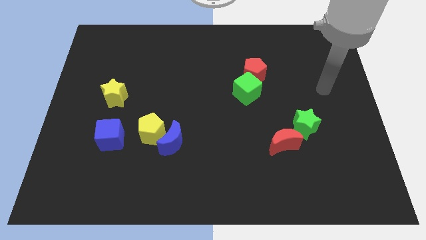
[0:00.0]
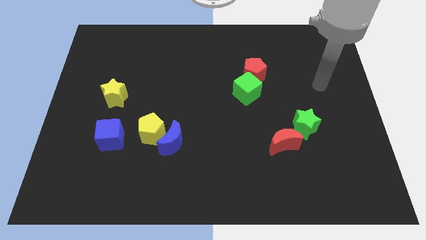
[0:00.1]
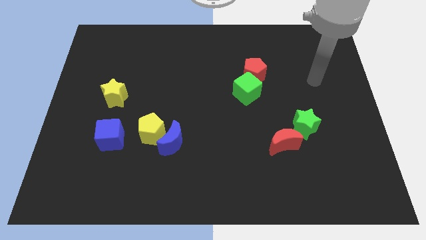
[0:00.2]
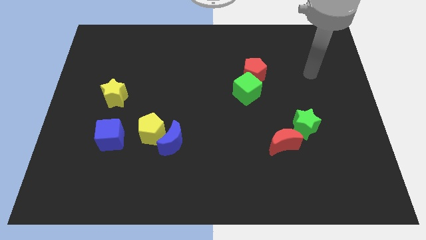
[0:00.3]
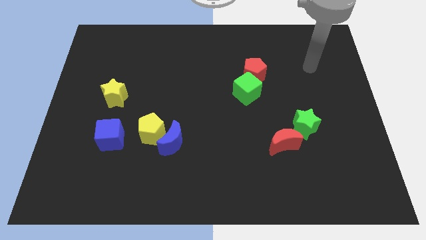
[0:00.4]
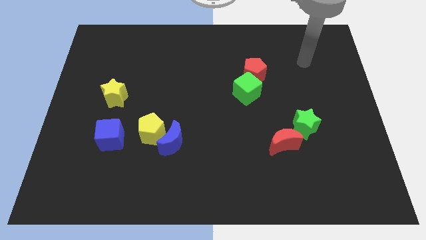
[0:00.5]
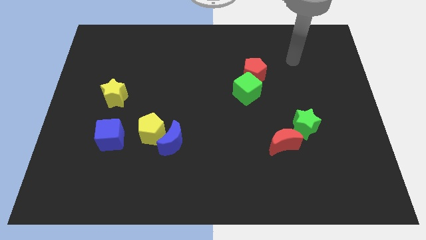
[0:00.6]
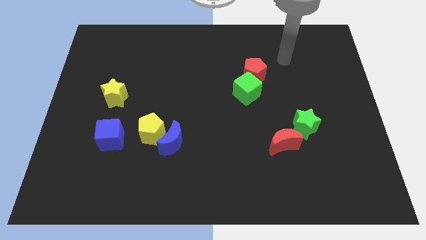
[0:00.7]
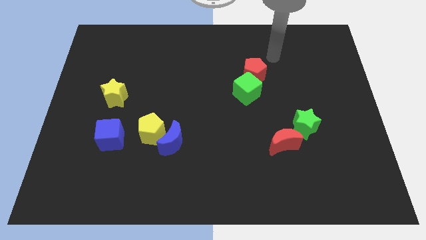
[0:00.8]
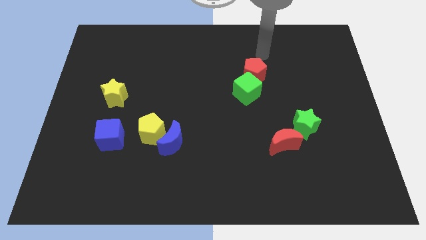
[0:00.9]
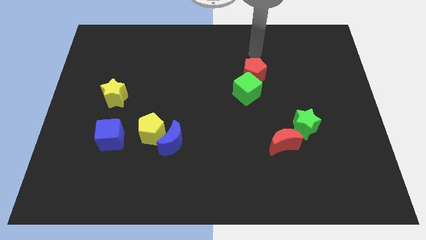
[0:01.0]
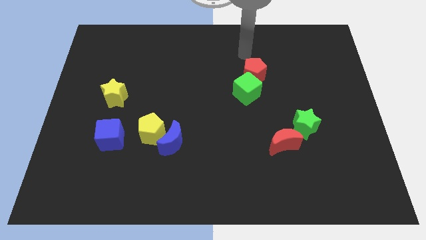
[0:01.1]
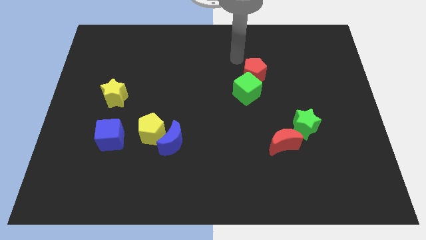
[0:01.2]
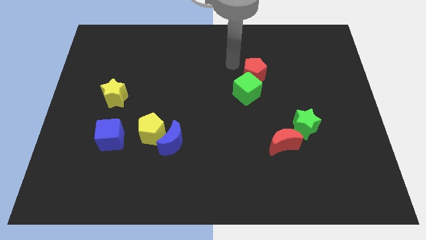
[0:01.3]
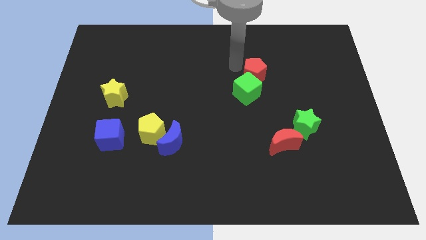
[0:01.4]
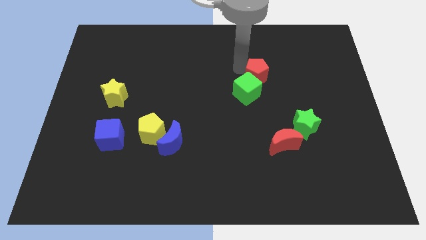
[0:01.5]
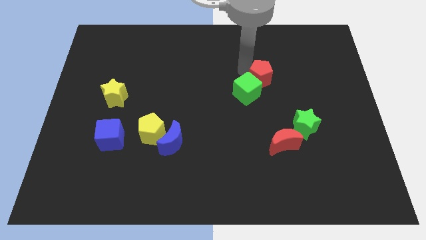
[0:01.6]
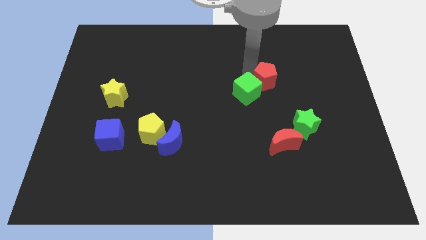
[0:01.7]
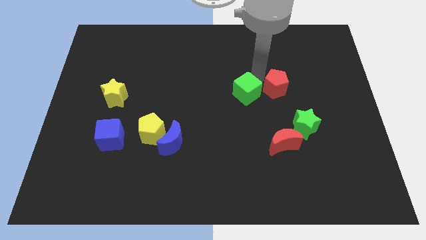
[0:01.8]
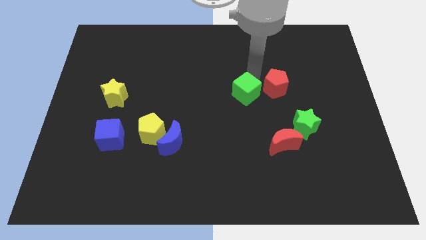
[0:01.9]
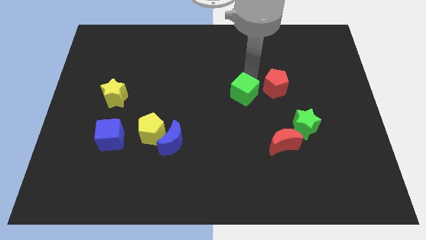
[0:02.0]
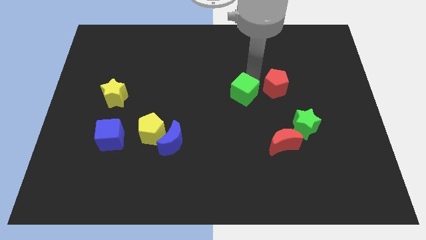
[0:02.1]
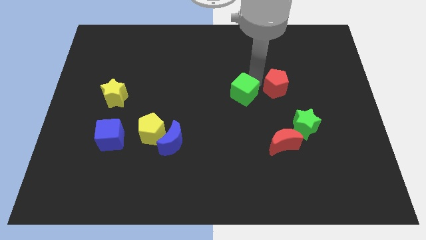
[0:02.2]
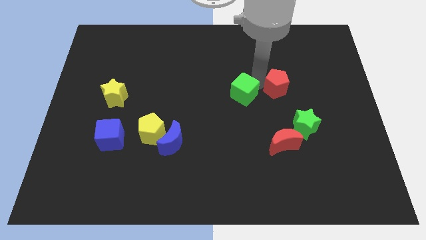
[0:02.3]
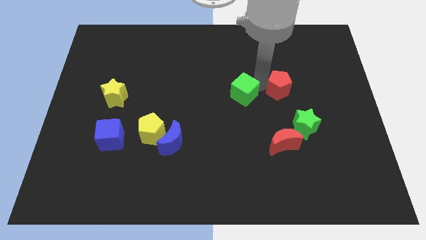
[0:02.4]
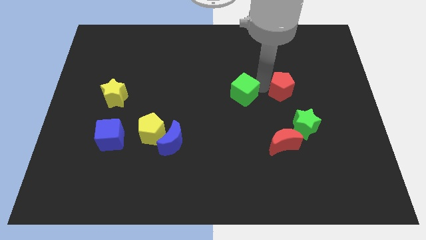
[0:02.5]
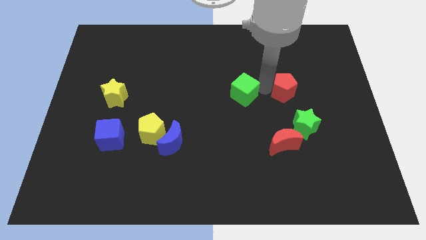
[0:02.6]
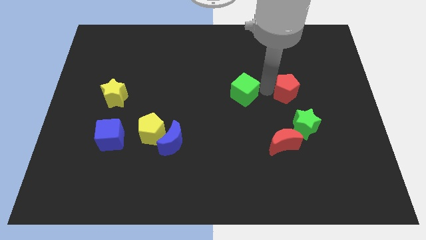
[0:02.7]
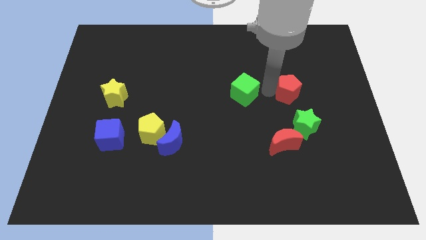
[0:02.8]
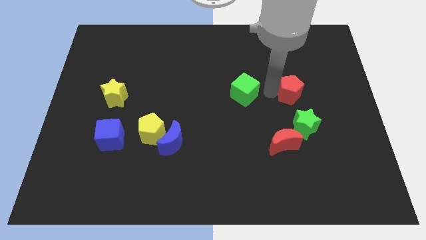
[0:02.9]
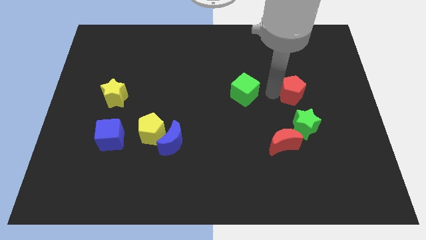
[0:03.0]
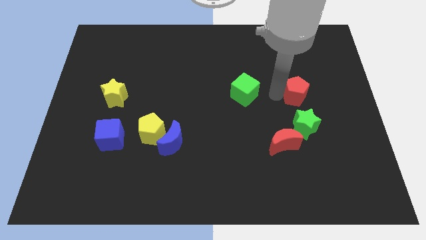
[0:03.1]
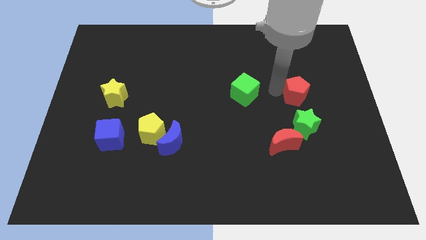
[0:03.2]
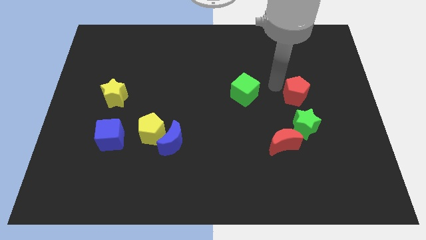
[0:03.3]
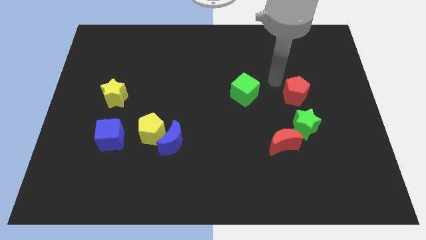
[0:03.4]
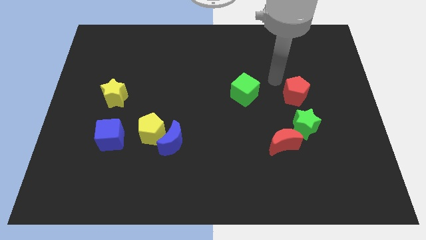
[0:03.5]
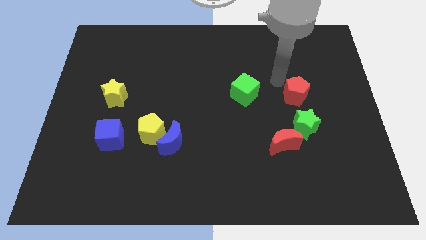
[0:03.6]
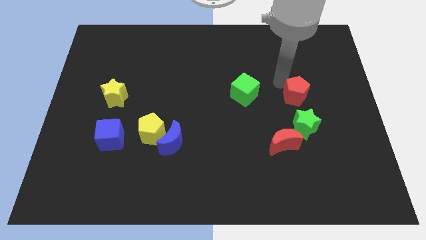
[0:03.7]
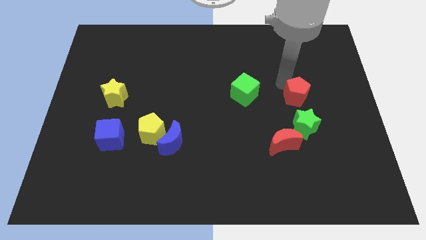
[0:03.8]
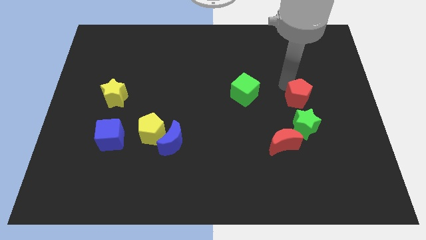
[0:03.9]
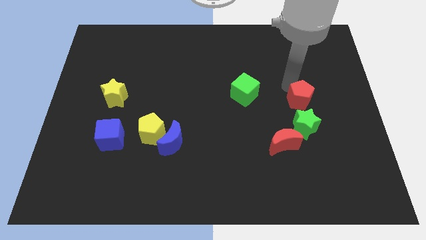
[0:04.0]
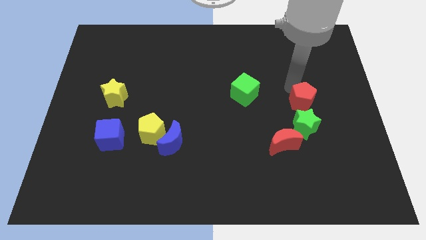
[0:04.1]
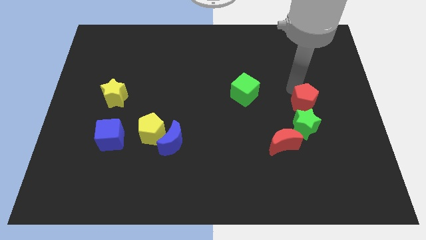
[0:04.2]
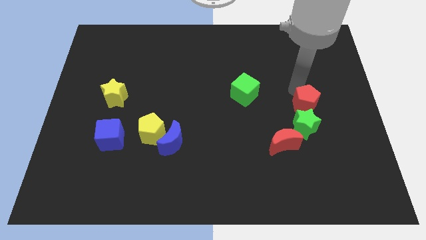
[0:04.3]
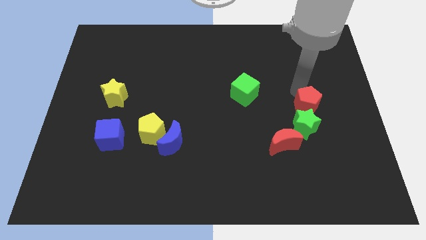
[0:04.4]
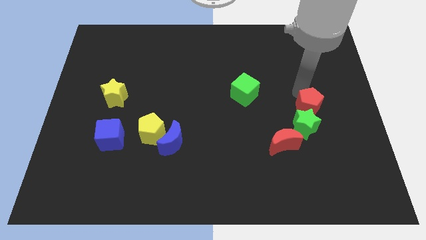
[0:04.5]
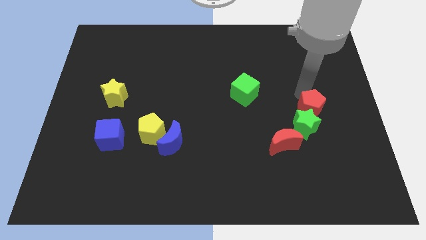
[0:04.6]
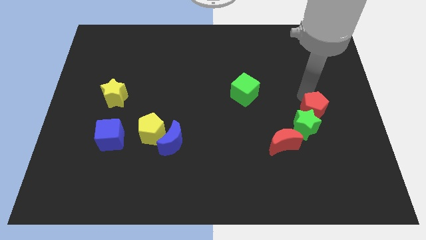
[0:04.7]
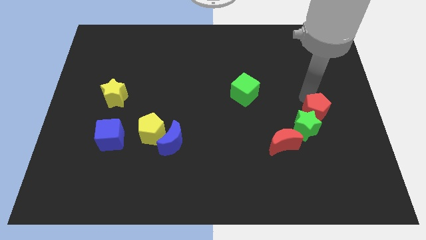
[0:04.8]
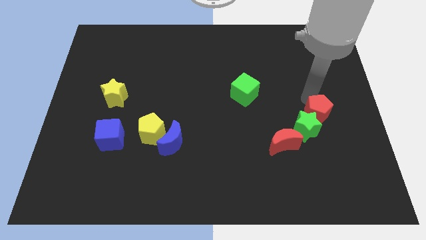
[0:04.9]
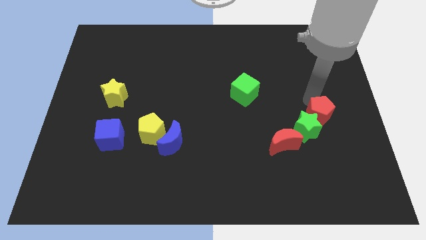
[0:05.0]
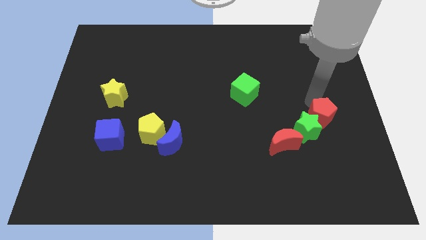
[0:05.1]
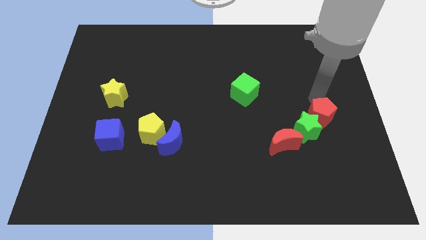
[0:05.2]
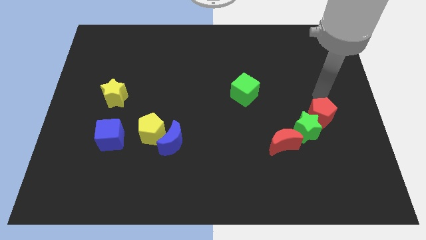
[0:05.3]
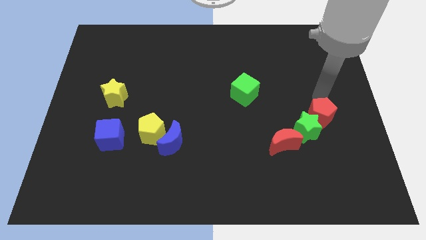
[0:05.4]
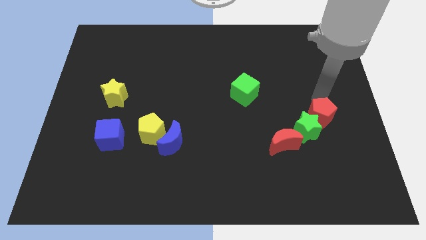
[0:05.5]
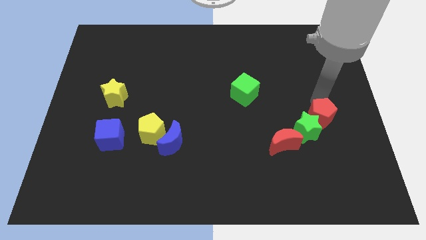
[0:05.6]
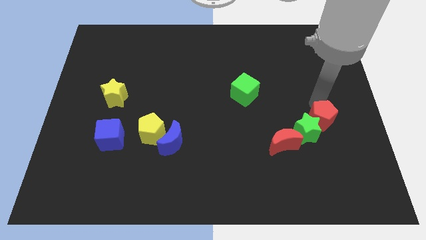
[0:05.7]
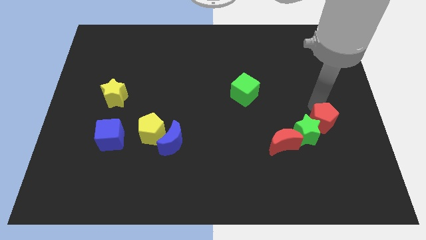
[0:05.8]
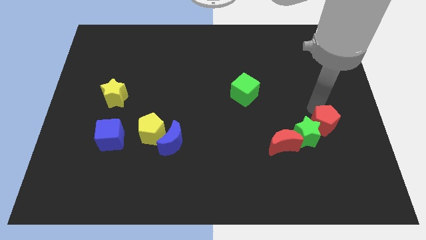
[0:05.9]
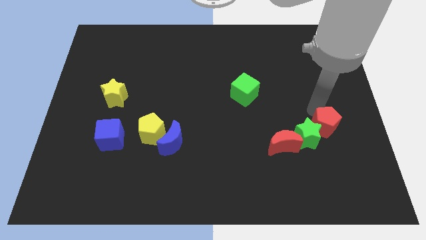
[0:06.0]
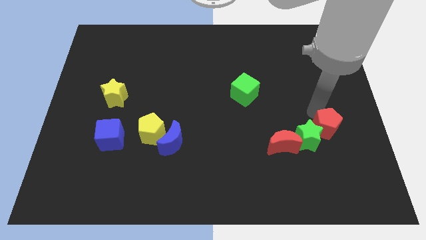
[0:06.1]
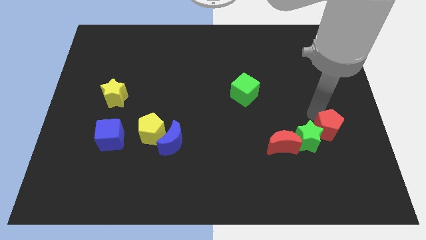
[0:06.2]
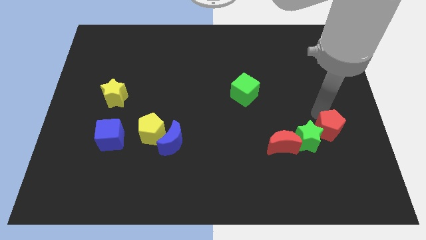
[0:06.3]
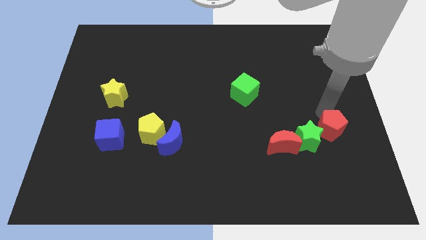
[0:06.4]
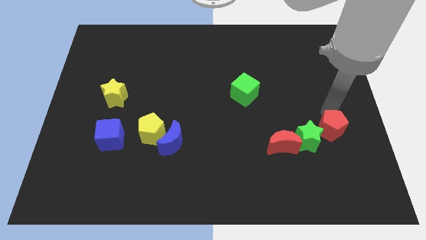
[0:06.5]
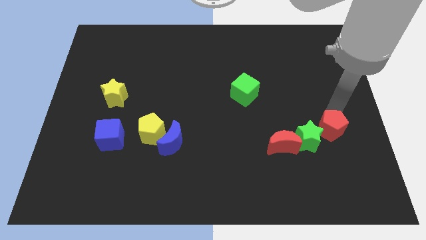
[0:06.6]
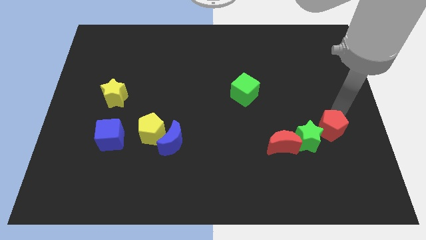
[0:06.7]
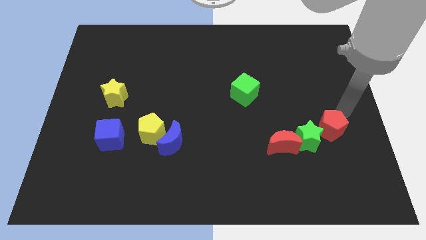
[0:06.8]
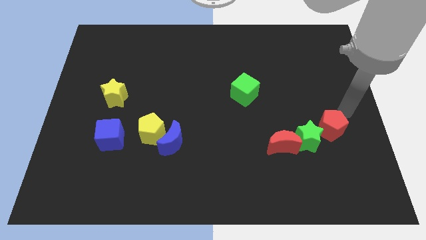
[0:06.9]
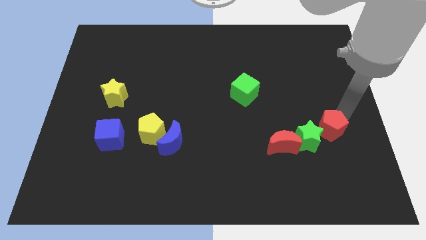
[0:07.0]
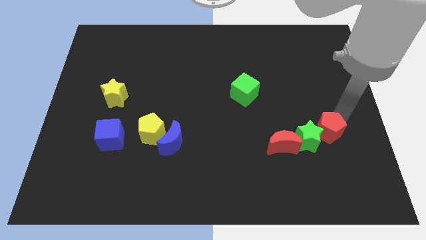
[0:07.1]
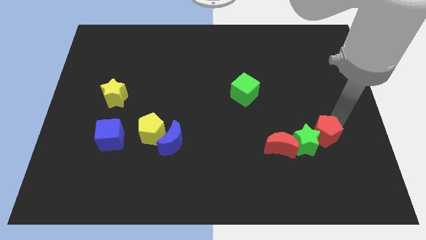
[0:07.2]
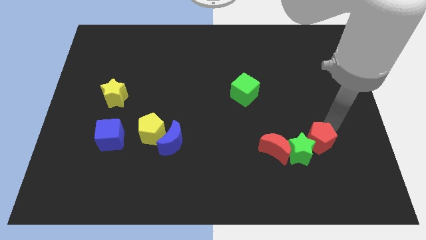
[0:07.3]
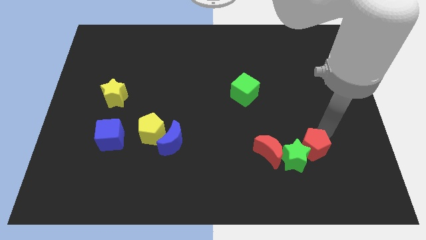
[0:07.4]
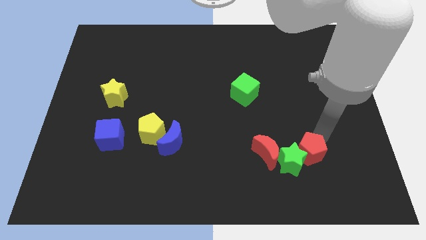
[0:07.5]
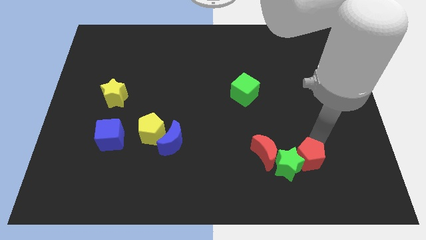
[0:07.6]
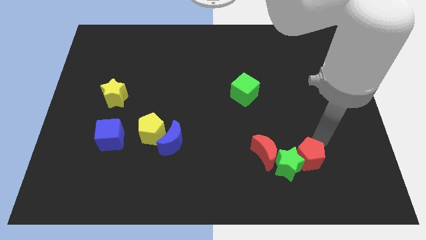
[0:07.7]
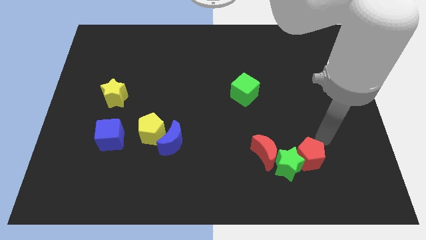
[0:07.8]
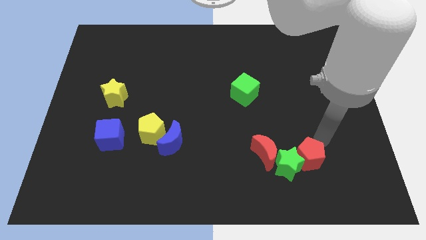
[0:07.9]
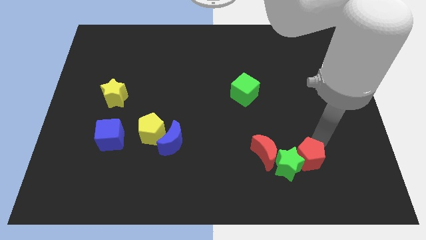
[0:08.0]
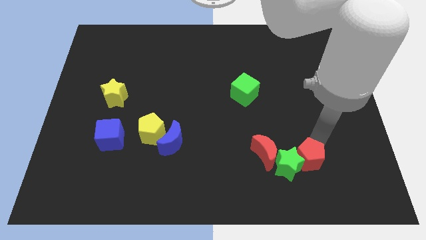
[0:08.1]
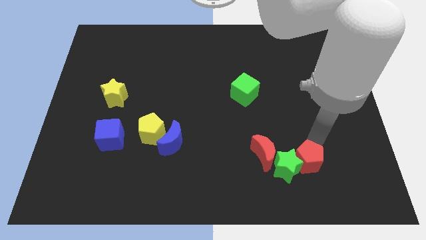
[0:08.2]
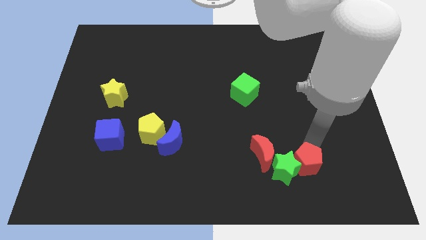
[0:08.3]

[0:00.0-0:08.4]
push the red pentagon diagonally down and to the right of the red moon
